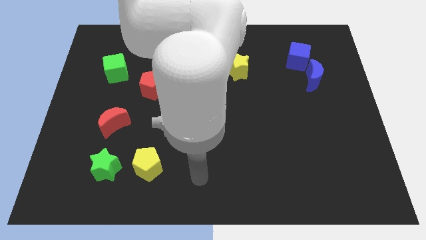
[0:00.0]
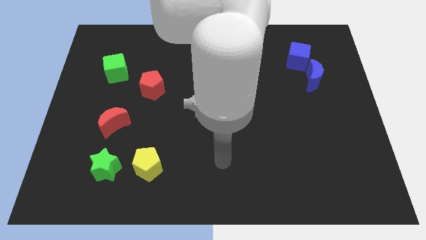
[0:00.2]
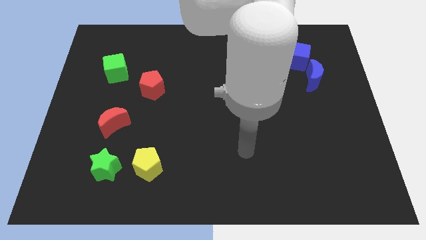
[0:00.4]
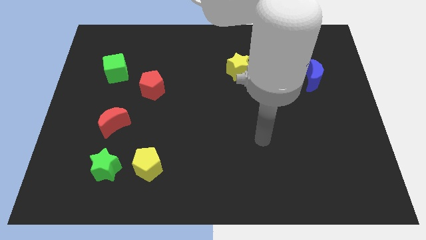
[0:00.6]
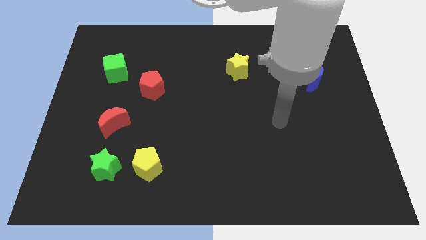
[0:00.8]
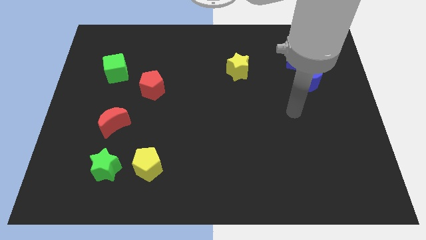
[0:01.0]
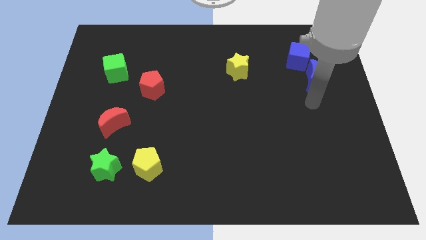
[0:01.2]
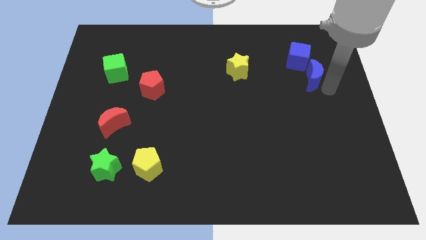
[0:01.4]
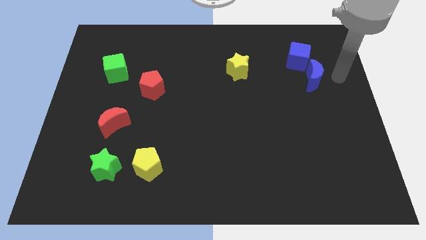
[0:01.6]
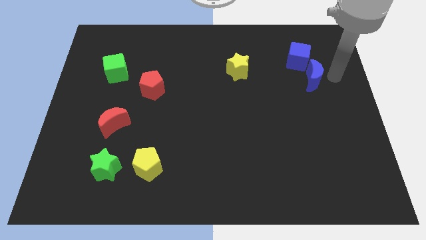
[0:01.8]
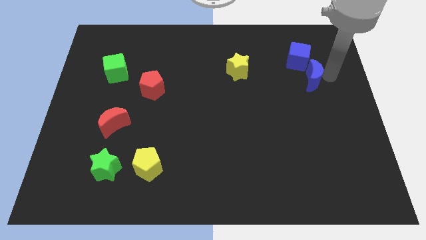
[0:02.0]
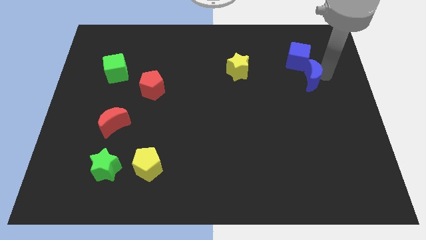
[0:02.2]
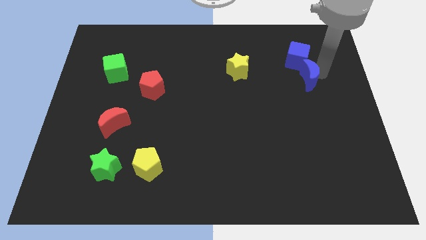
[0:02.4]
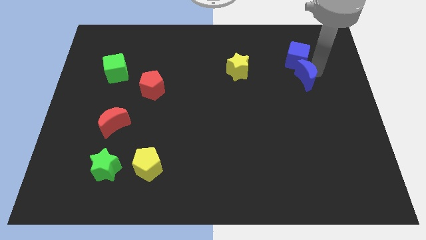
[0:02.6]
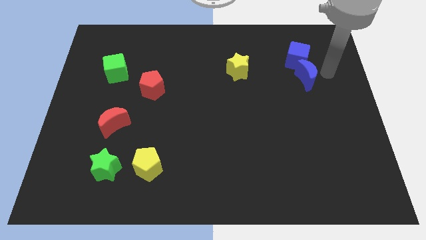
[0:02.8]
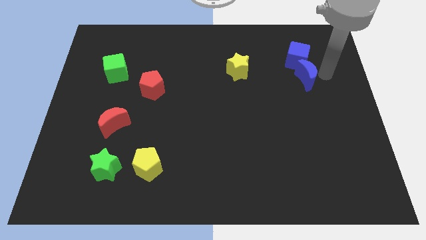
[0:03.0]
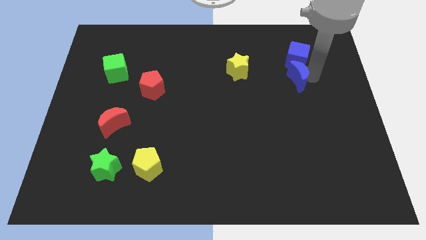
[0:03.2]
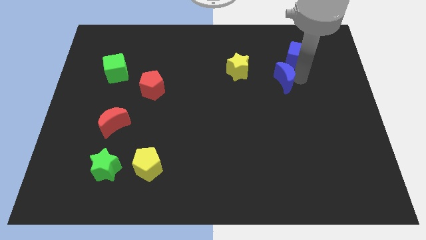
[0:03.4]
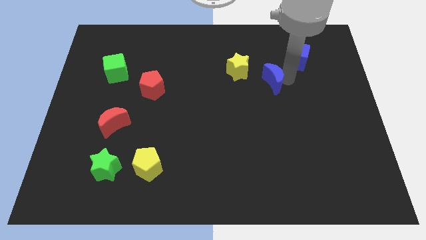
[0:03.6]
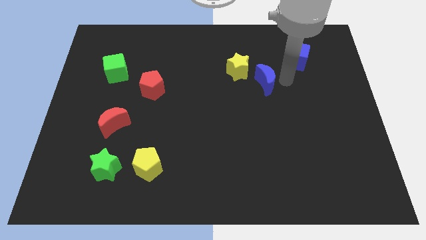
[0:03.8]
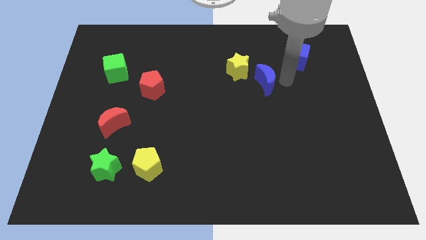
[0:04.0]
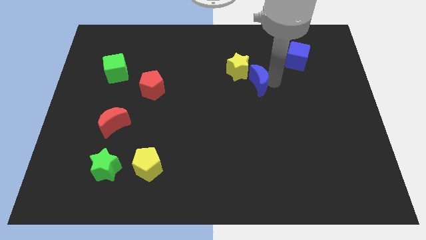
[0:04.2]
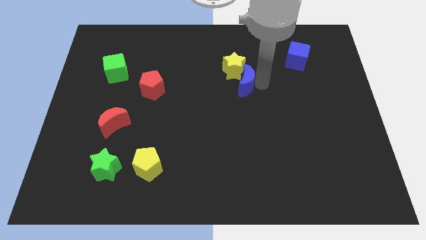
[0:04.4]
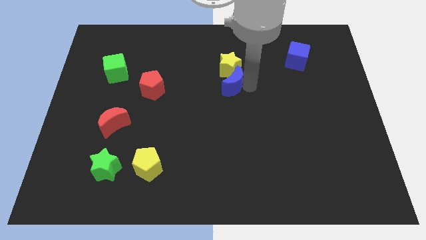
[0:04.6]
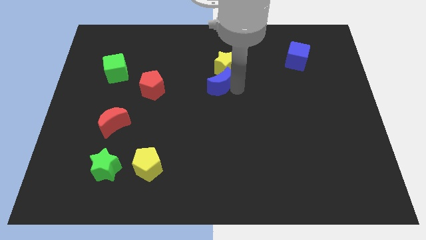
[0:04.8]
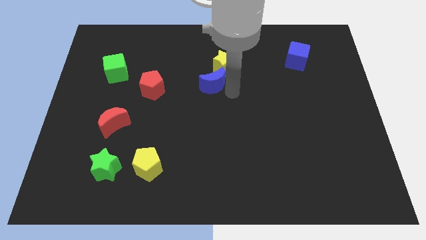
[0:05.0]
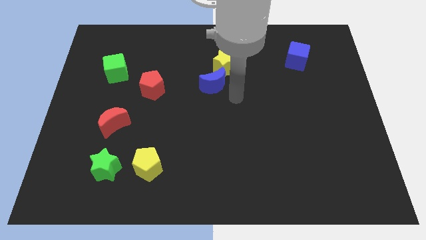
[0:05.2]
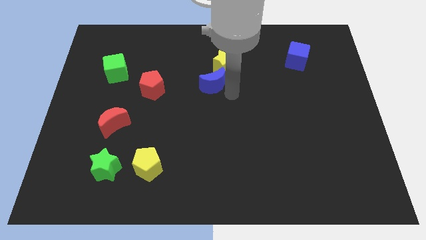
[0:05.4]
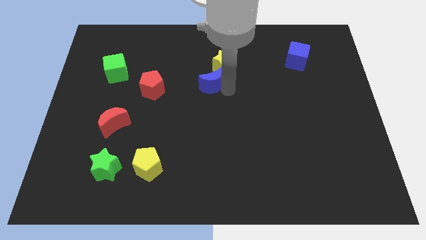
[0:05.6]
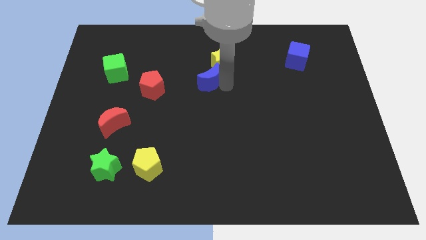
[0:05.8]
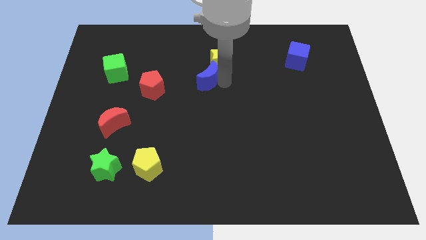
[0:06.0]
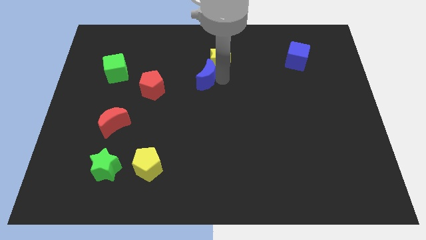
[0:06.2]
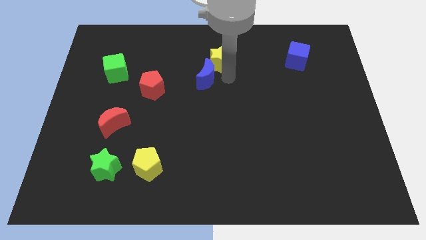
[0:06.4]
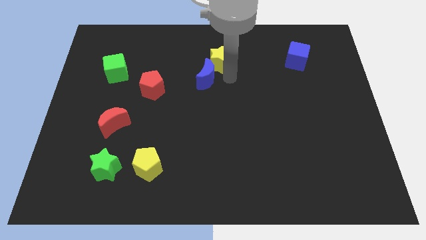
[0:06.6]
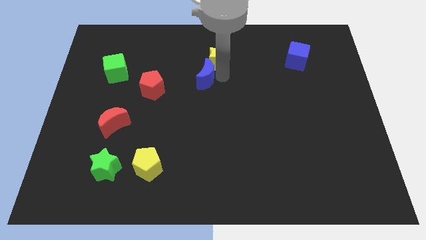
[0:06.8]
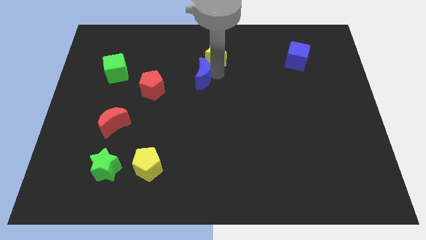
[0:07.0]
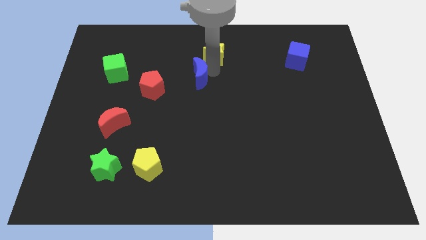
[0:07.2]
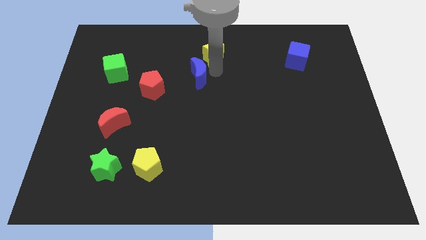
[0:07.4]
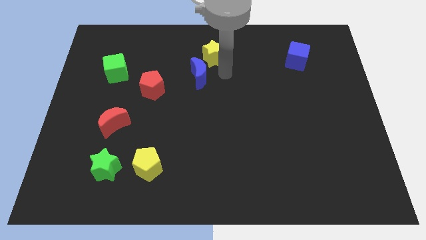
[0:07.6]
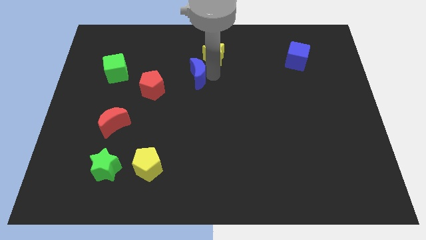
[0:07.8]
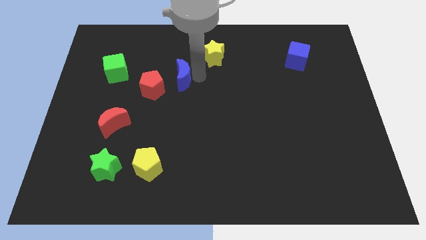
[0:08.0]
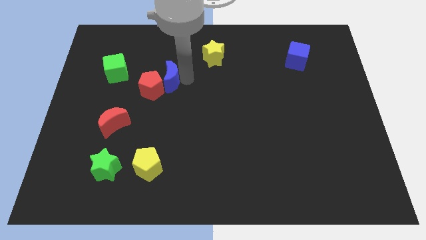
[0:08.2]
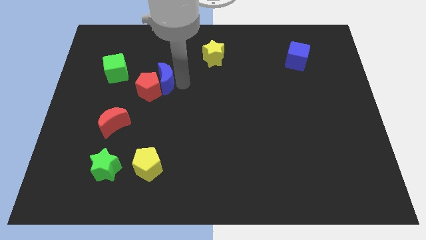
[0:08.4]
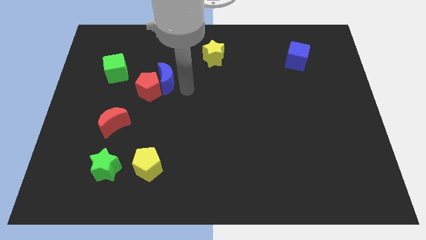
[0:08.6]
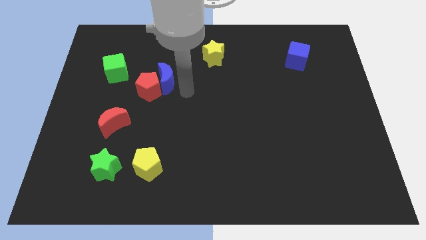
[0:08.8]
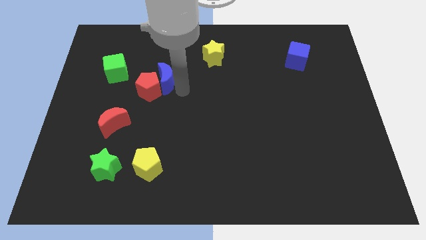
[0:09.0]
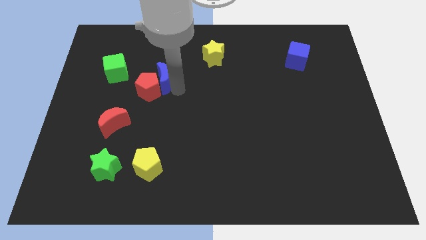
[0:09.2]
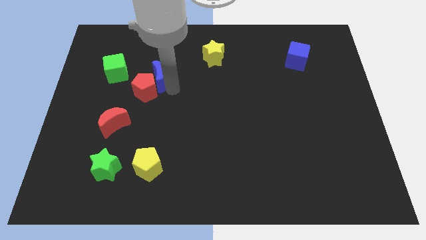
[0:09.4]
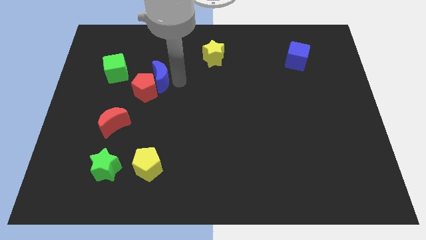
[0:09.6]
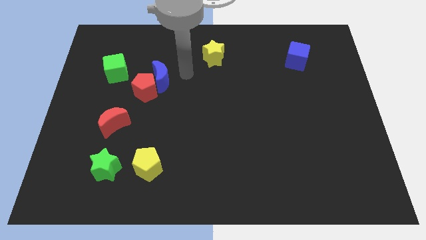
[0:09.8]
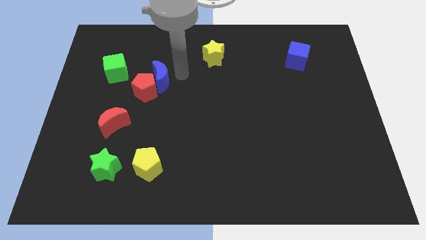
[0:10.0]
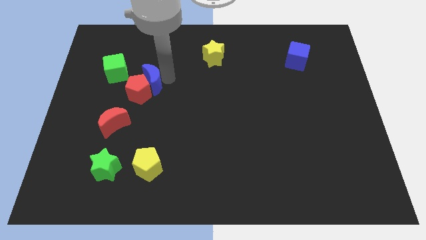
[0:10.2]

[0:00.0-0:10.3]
move the blue moon to the bottom right side of the green cube

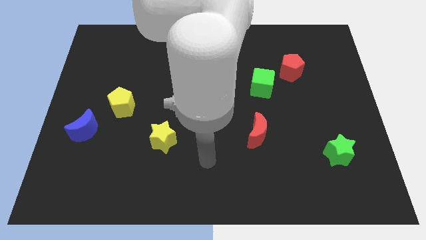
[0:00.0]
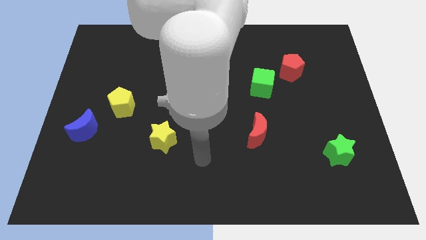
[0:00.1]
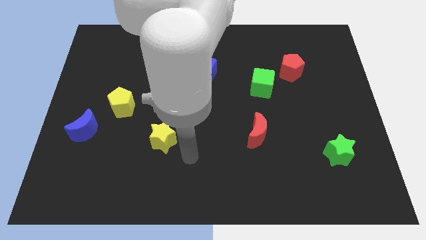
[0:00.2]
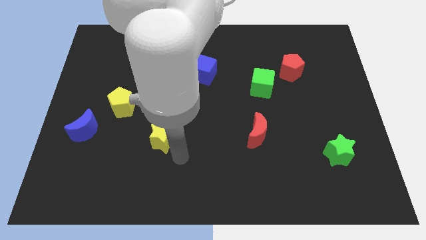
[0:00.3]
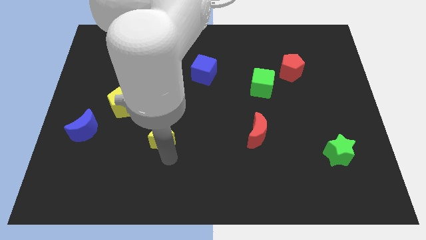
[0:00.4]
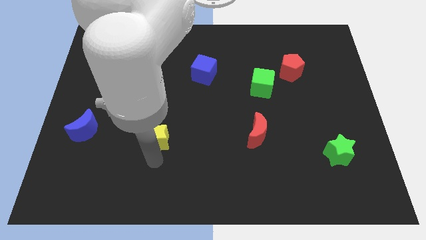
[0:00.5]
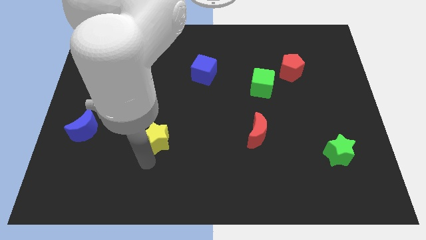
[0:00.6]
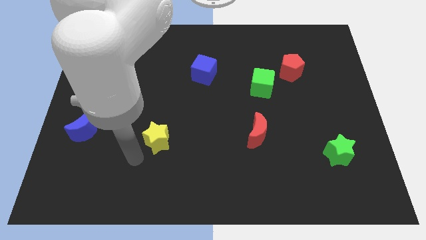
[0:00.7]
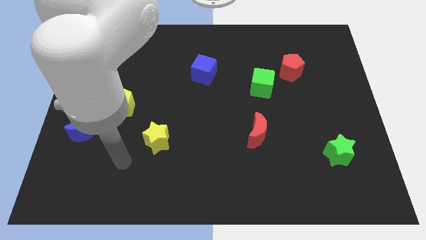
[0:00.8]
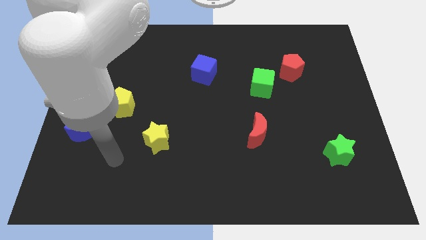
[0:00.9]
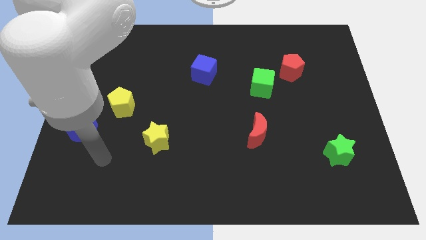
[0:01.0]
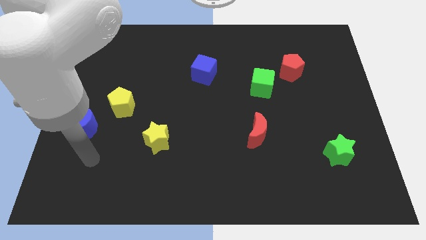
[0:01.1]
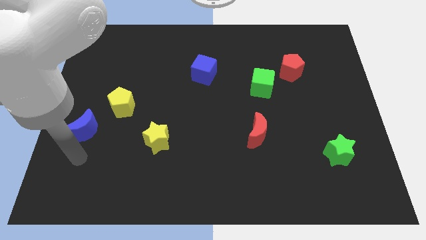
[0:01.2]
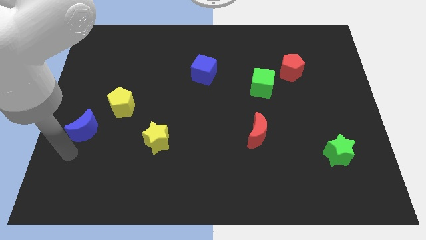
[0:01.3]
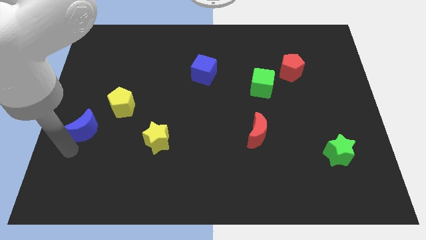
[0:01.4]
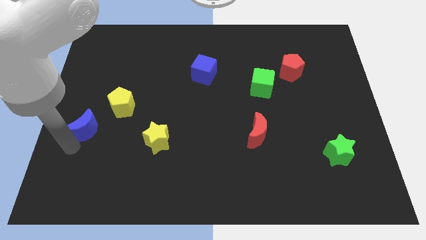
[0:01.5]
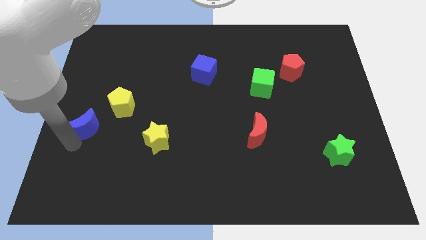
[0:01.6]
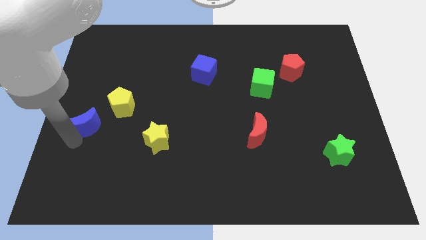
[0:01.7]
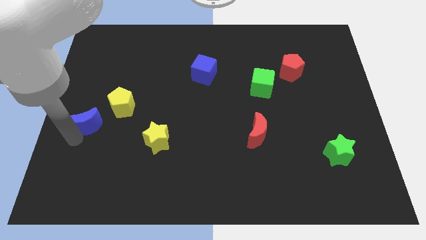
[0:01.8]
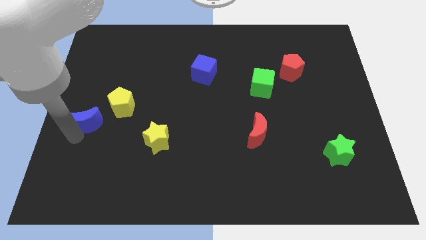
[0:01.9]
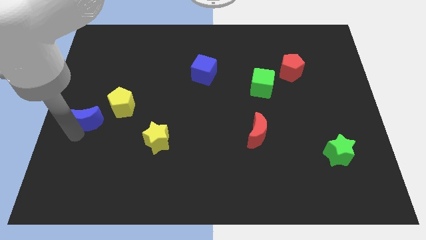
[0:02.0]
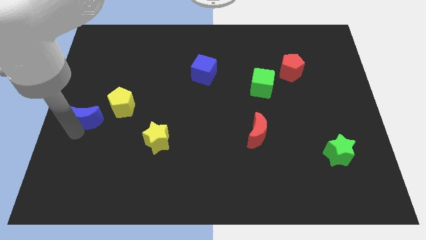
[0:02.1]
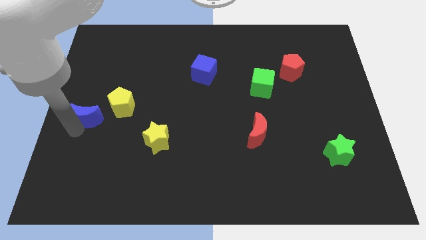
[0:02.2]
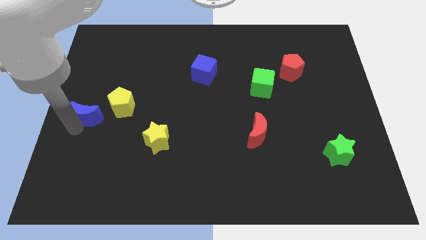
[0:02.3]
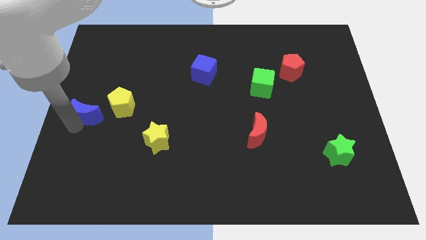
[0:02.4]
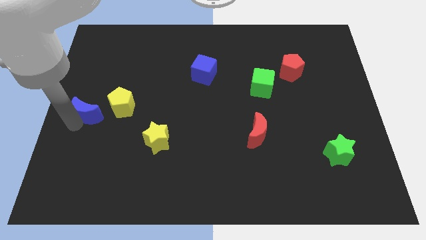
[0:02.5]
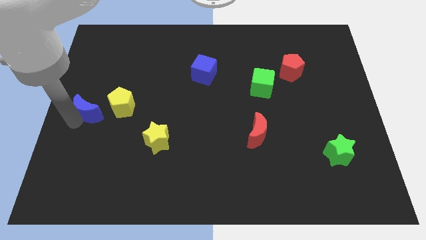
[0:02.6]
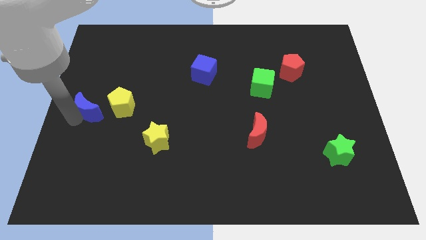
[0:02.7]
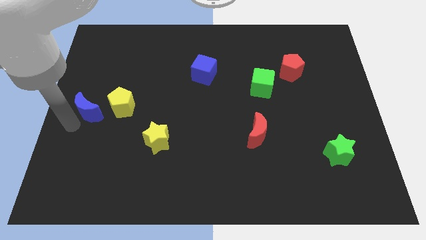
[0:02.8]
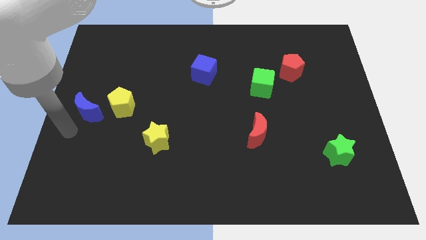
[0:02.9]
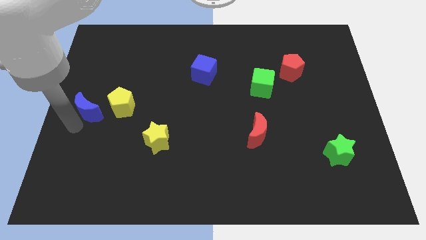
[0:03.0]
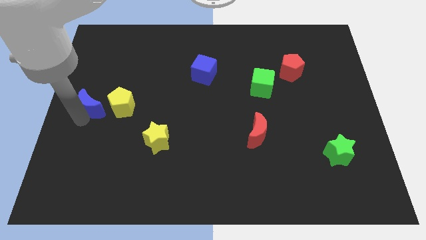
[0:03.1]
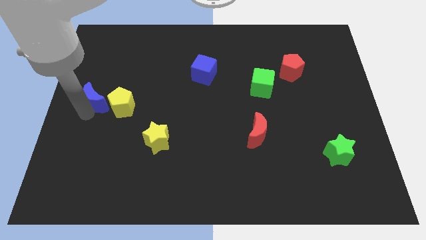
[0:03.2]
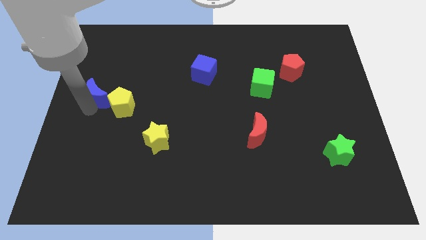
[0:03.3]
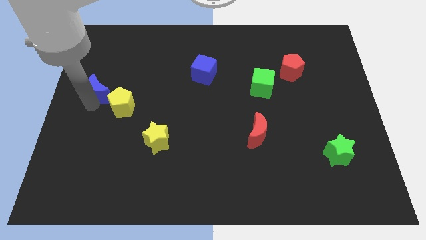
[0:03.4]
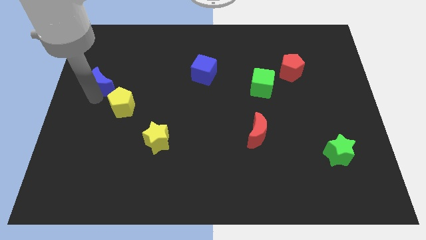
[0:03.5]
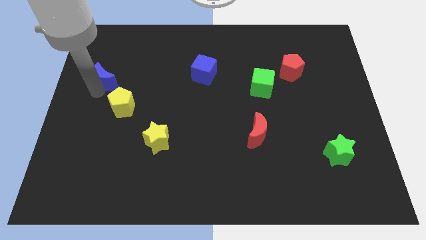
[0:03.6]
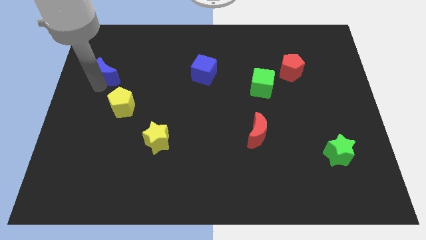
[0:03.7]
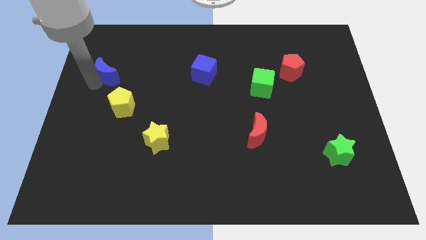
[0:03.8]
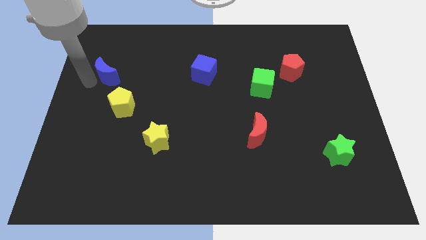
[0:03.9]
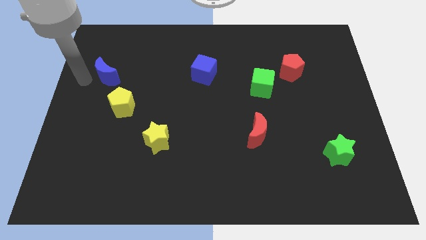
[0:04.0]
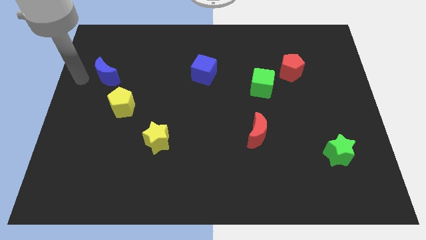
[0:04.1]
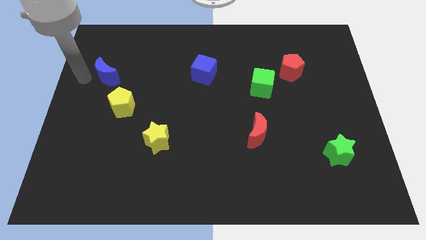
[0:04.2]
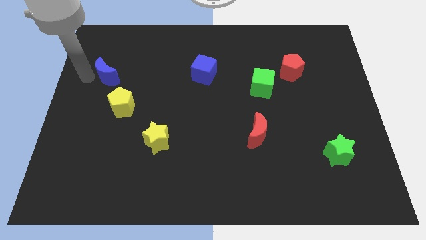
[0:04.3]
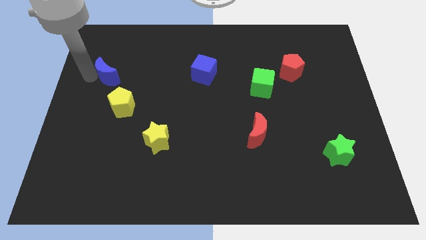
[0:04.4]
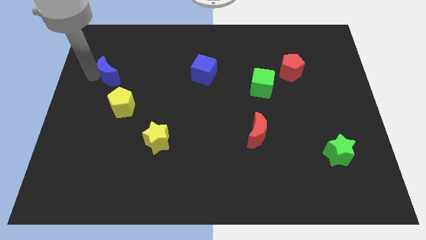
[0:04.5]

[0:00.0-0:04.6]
push the blue moon above the yellow pentagon
